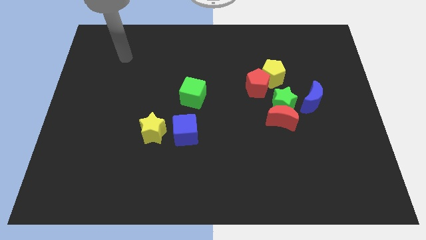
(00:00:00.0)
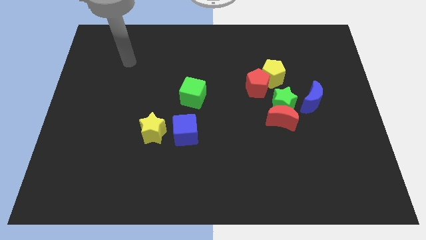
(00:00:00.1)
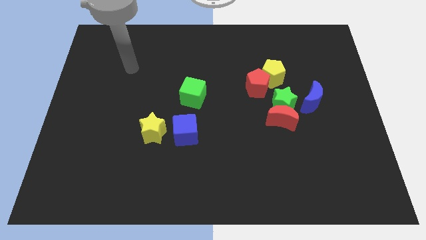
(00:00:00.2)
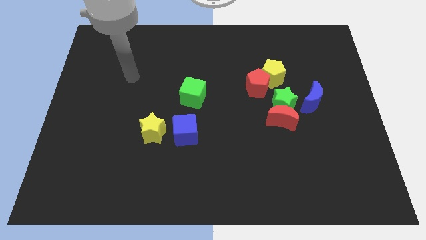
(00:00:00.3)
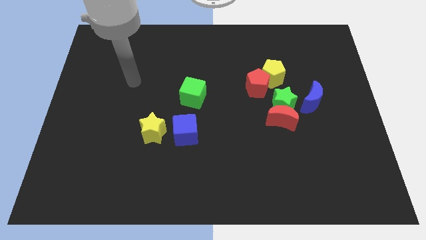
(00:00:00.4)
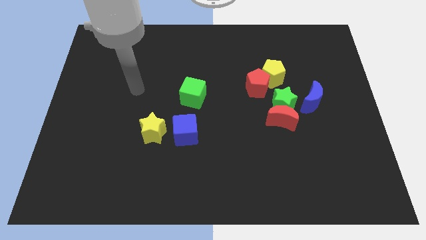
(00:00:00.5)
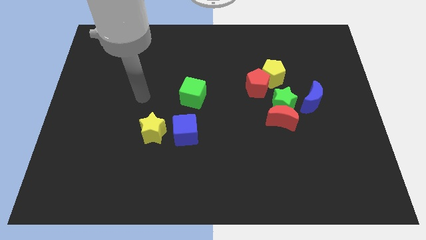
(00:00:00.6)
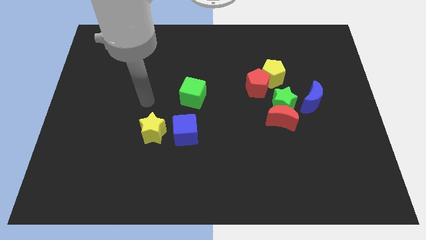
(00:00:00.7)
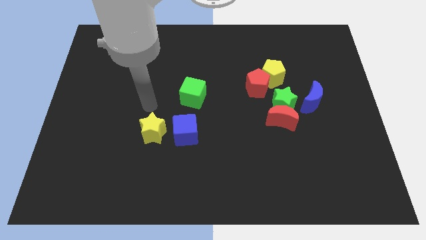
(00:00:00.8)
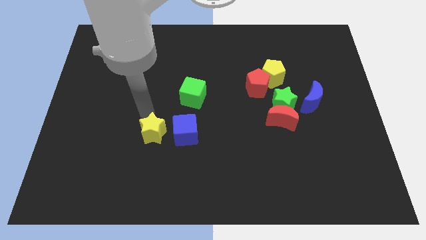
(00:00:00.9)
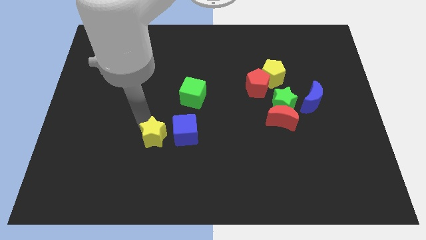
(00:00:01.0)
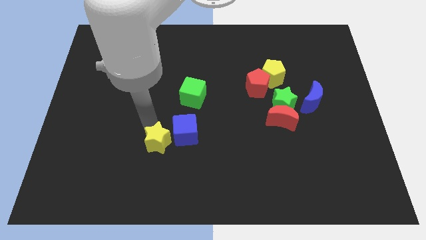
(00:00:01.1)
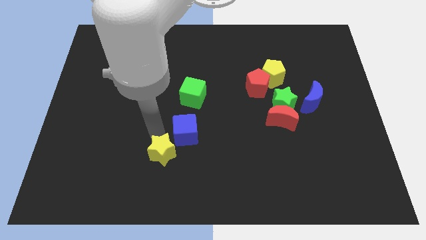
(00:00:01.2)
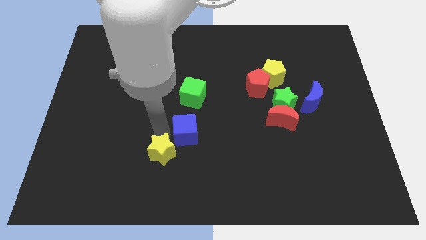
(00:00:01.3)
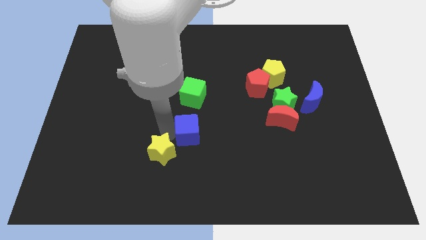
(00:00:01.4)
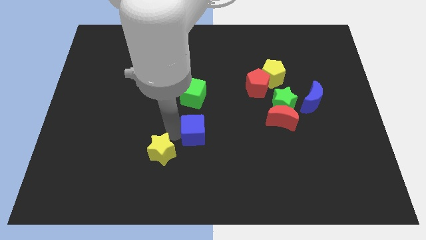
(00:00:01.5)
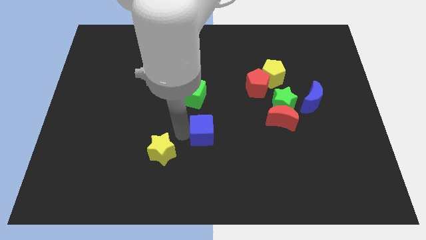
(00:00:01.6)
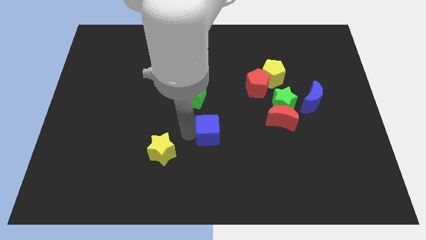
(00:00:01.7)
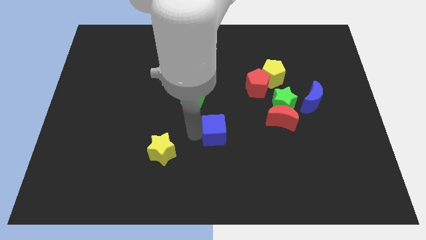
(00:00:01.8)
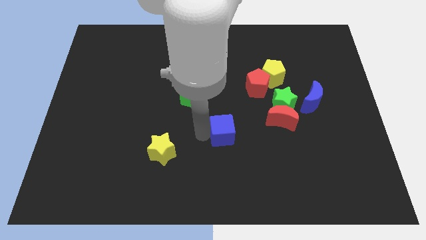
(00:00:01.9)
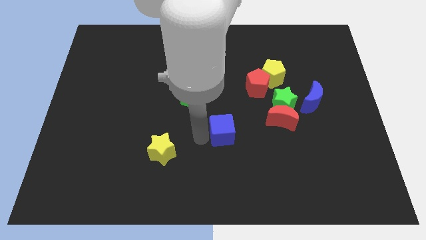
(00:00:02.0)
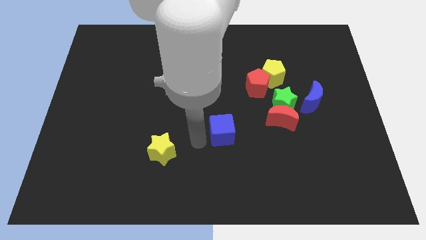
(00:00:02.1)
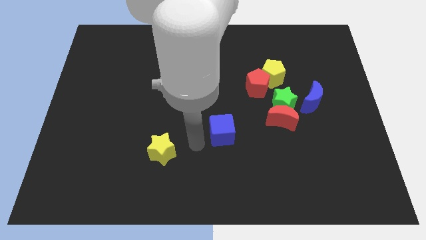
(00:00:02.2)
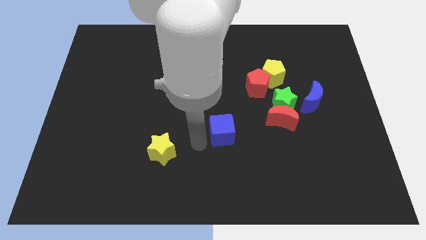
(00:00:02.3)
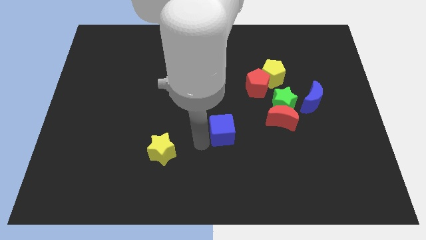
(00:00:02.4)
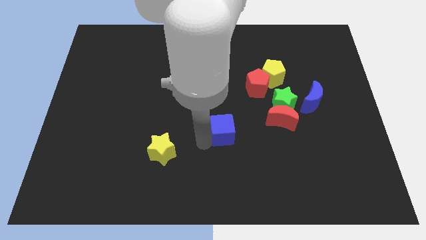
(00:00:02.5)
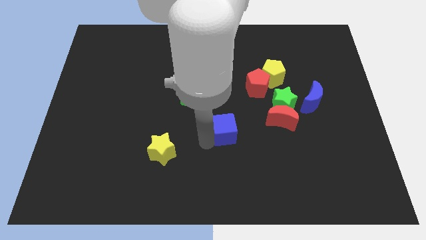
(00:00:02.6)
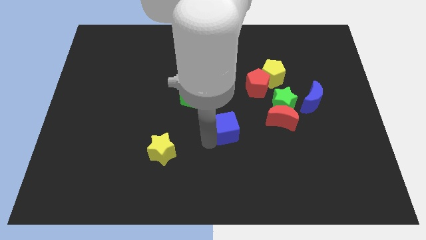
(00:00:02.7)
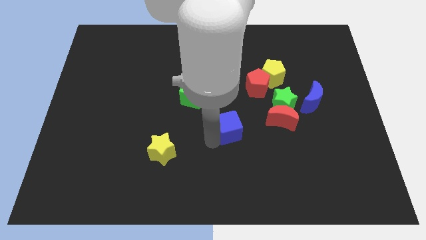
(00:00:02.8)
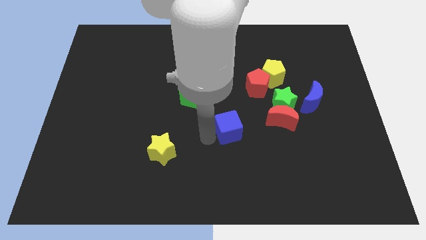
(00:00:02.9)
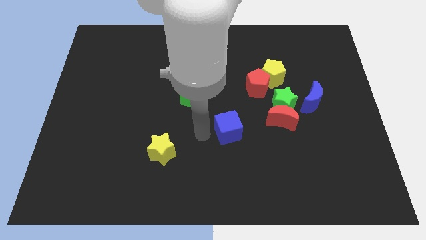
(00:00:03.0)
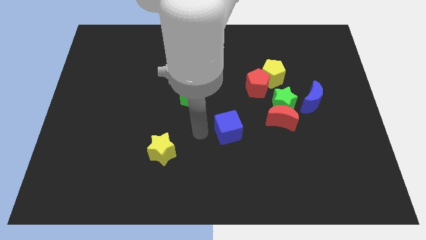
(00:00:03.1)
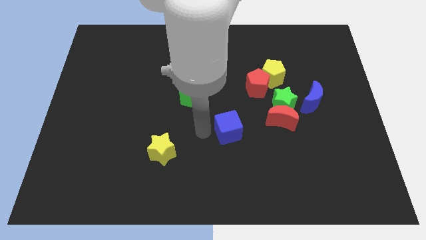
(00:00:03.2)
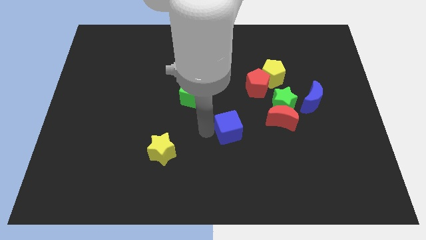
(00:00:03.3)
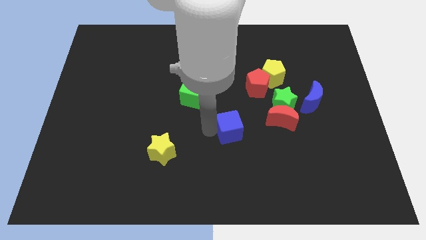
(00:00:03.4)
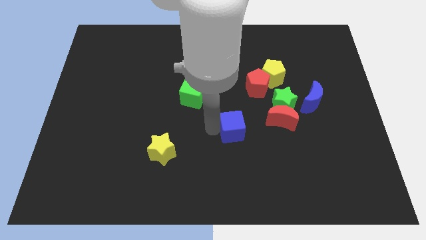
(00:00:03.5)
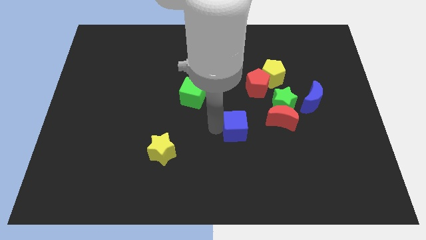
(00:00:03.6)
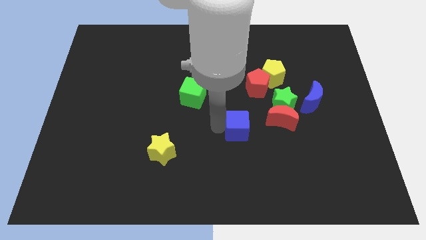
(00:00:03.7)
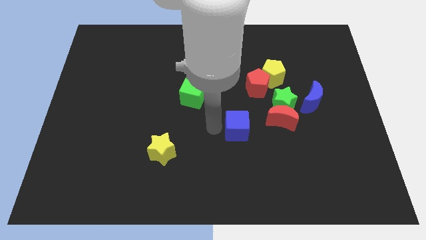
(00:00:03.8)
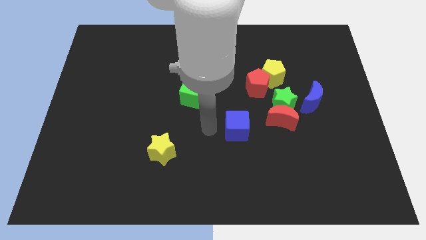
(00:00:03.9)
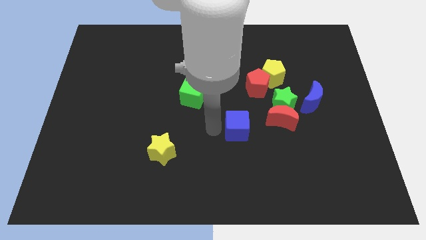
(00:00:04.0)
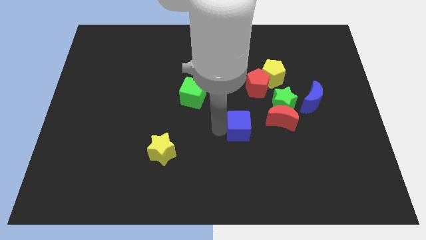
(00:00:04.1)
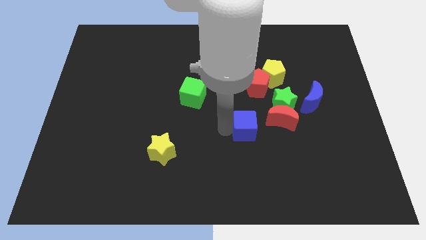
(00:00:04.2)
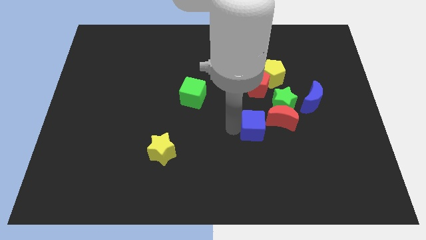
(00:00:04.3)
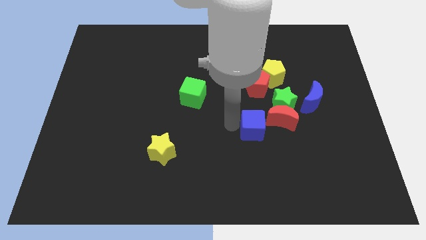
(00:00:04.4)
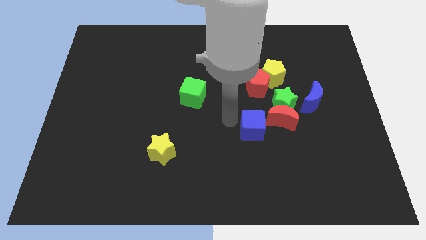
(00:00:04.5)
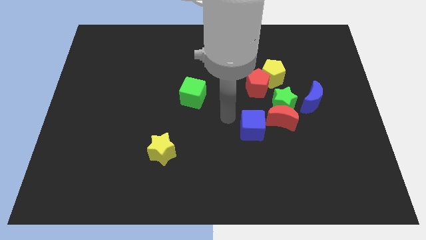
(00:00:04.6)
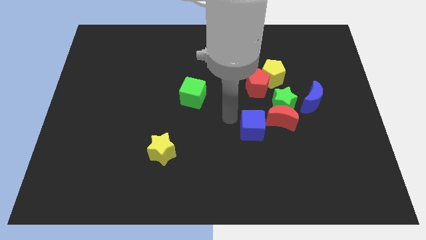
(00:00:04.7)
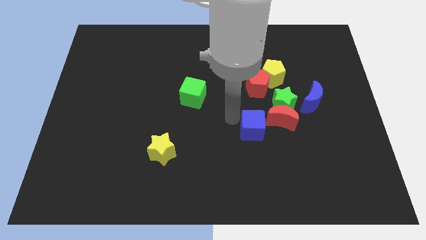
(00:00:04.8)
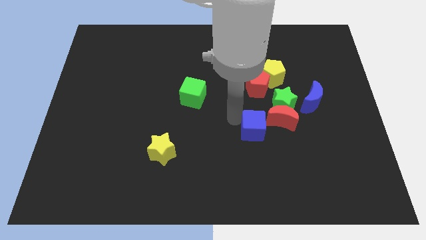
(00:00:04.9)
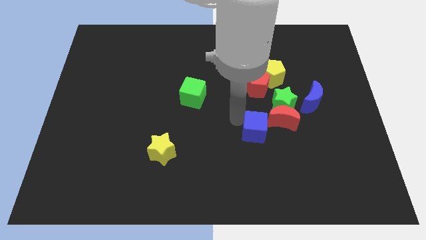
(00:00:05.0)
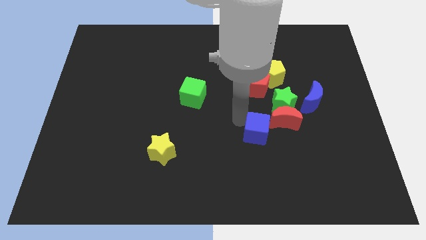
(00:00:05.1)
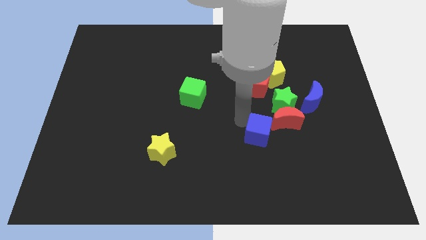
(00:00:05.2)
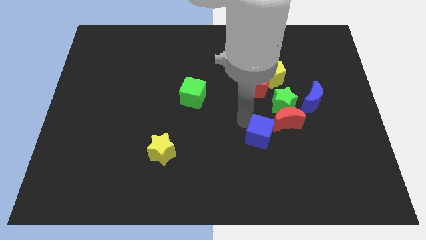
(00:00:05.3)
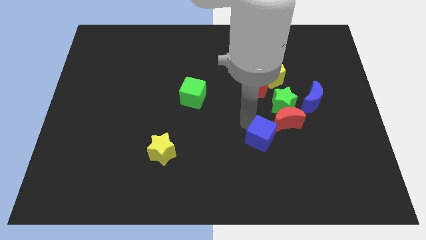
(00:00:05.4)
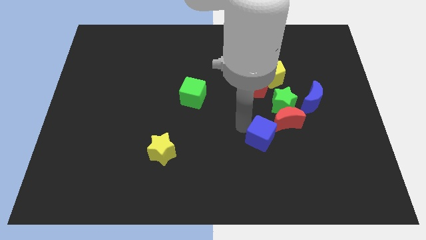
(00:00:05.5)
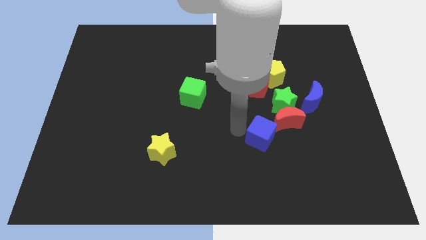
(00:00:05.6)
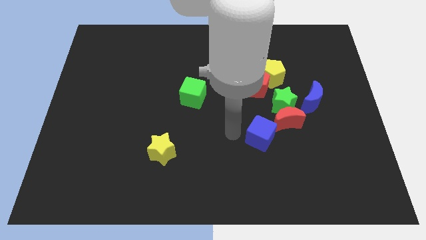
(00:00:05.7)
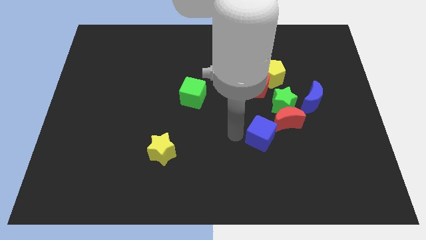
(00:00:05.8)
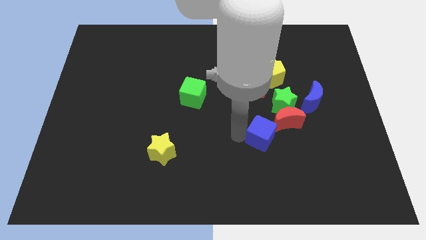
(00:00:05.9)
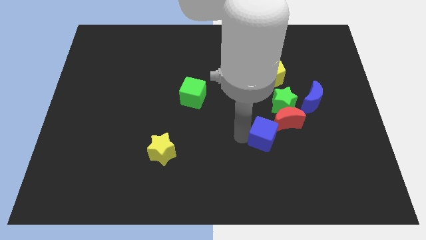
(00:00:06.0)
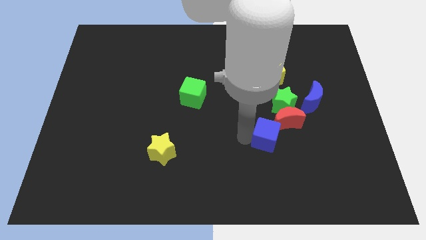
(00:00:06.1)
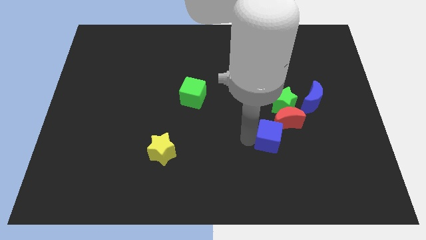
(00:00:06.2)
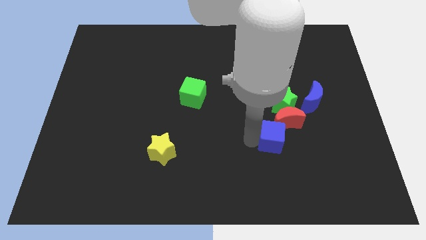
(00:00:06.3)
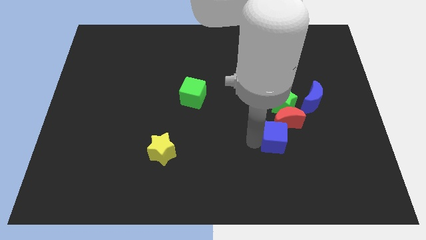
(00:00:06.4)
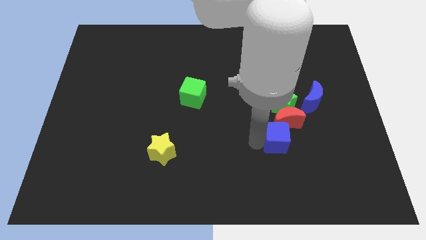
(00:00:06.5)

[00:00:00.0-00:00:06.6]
slide the blue cube right

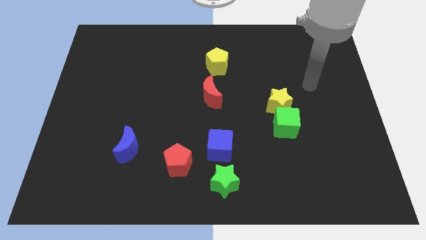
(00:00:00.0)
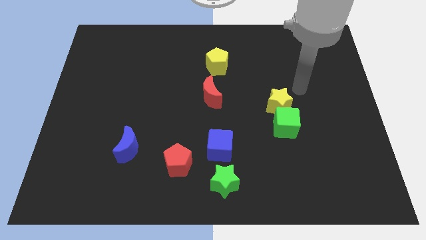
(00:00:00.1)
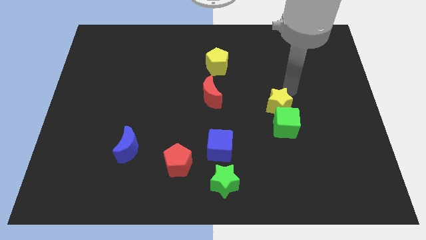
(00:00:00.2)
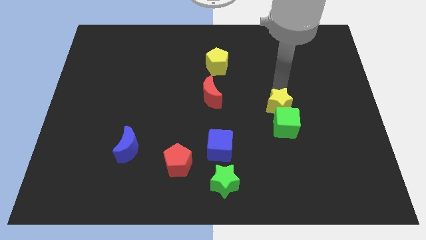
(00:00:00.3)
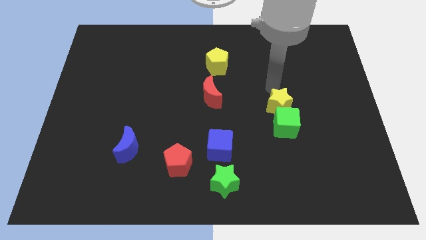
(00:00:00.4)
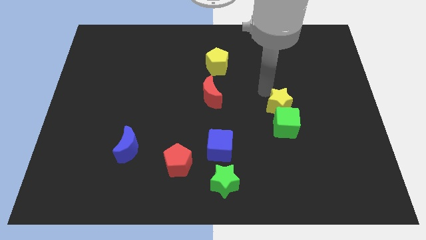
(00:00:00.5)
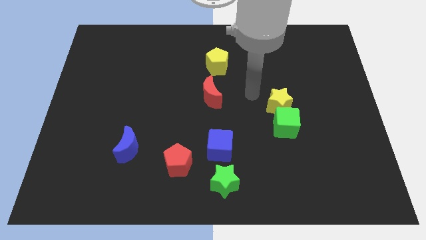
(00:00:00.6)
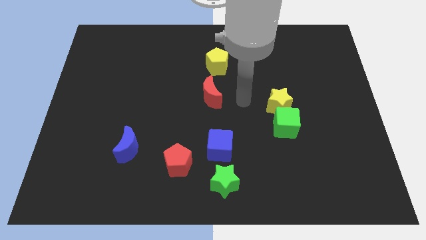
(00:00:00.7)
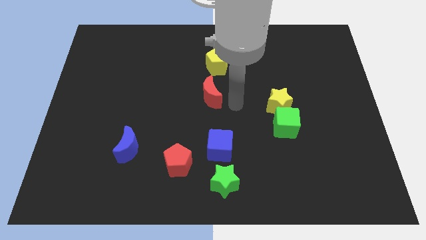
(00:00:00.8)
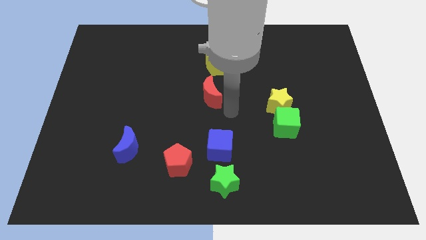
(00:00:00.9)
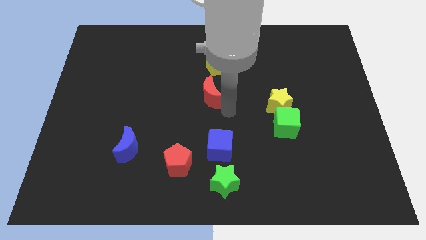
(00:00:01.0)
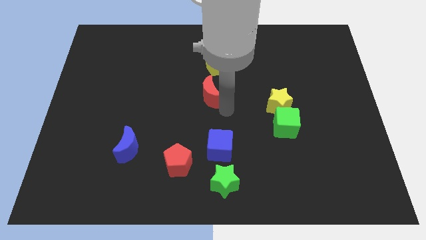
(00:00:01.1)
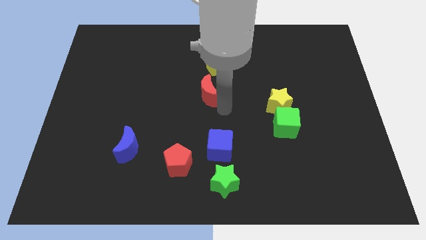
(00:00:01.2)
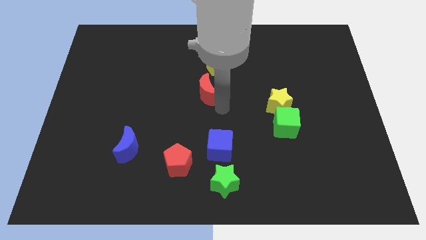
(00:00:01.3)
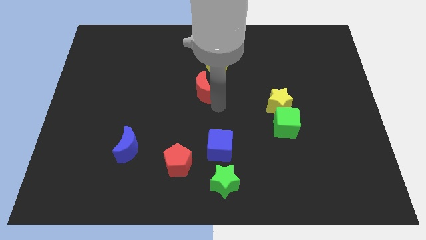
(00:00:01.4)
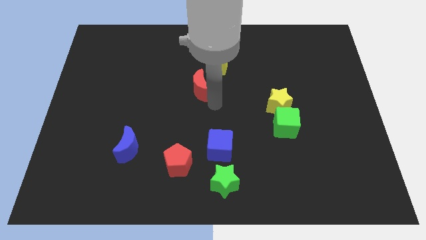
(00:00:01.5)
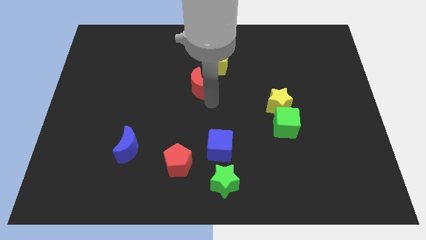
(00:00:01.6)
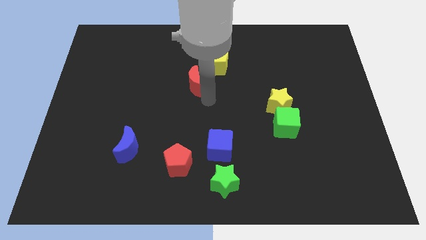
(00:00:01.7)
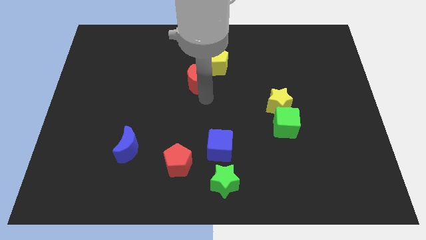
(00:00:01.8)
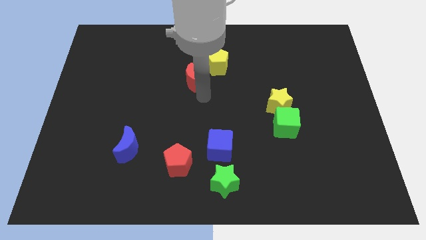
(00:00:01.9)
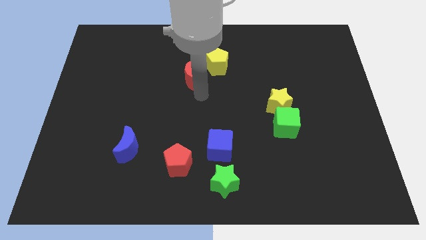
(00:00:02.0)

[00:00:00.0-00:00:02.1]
push the red moon a bit diagonally up and left
